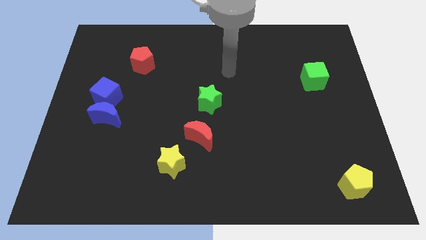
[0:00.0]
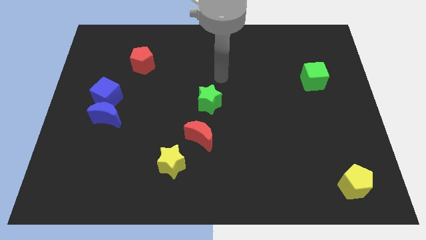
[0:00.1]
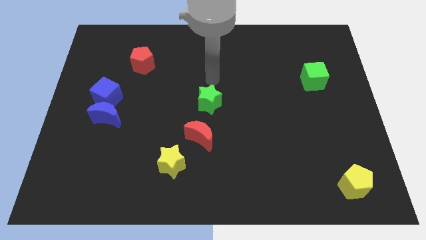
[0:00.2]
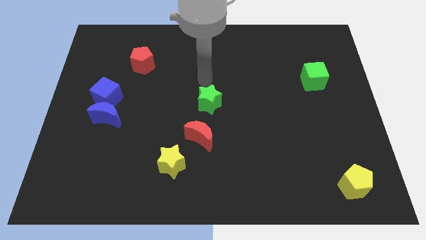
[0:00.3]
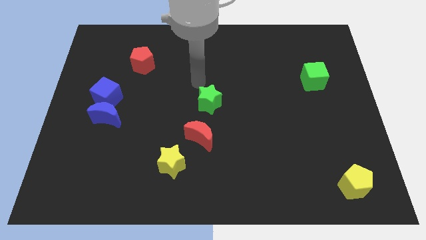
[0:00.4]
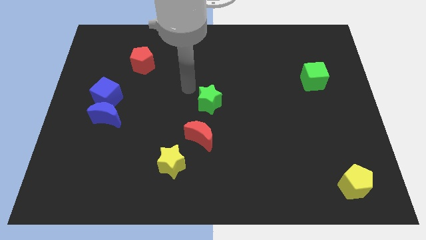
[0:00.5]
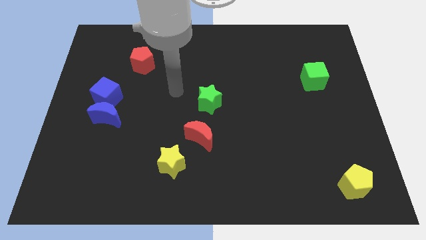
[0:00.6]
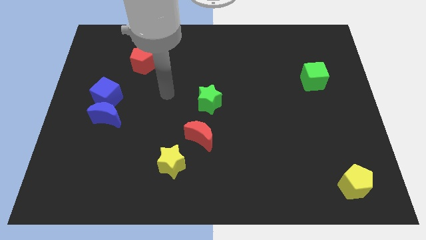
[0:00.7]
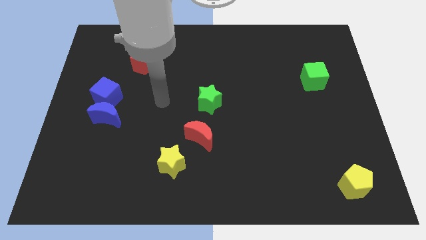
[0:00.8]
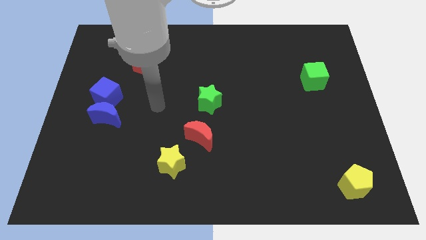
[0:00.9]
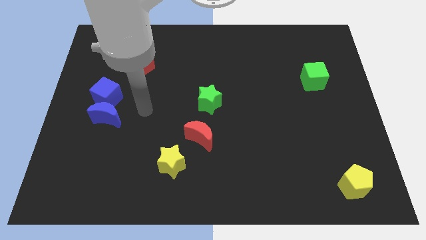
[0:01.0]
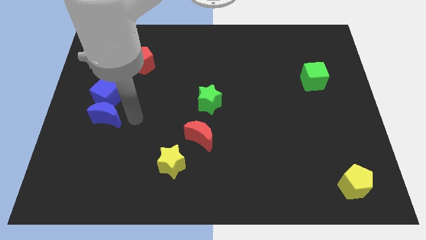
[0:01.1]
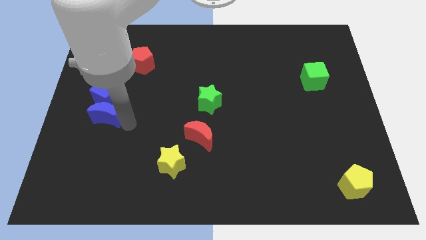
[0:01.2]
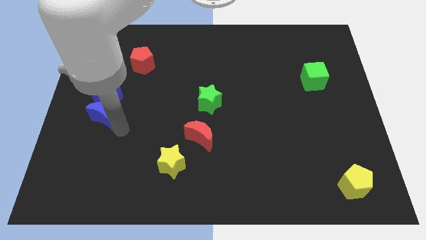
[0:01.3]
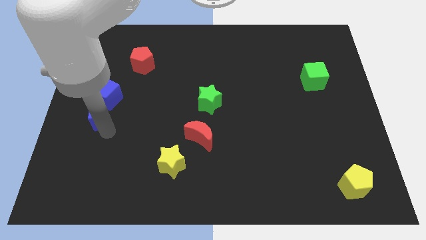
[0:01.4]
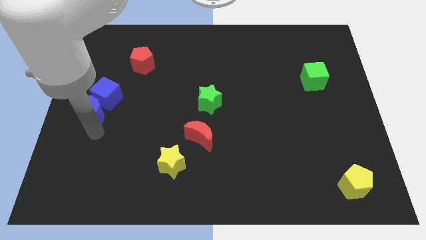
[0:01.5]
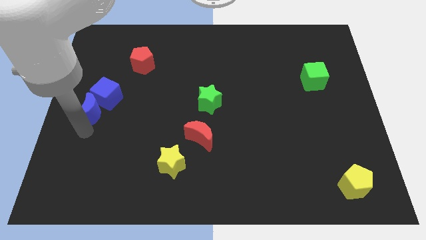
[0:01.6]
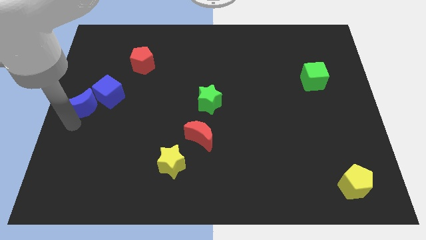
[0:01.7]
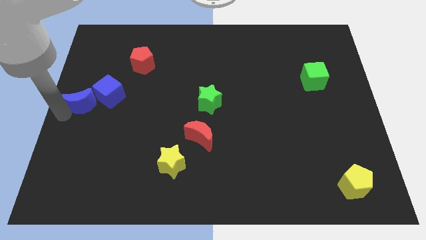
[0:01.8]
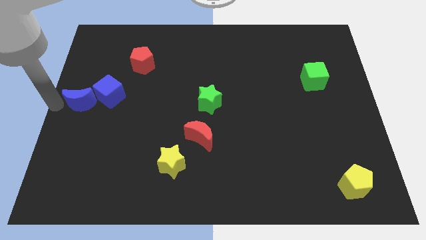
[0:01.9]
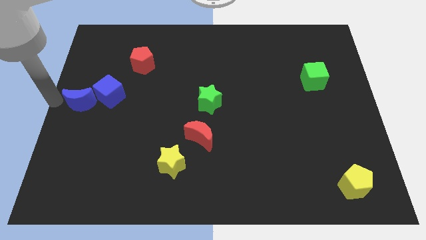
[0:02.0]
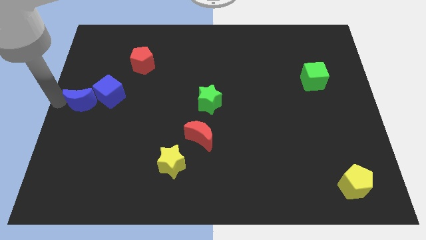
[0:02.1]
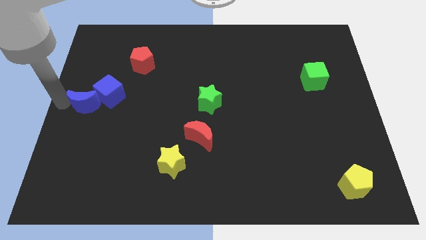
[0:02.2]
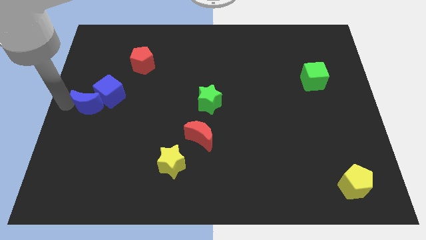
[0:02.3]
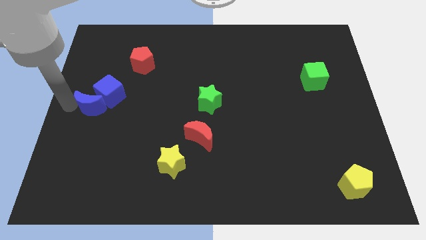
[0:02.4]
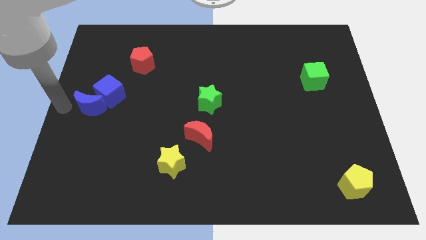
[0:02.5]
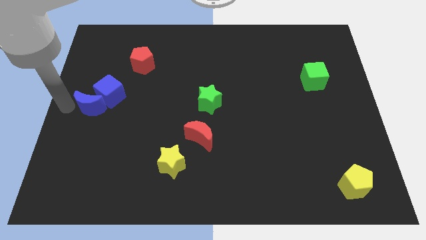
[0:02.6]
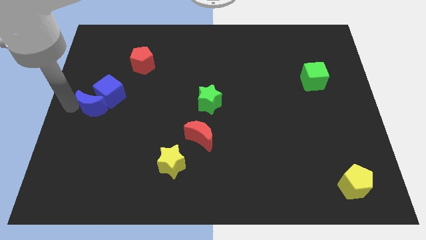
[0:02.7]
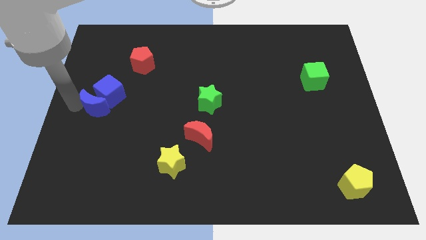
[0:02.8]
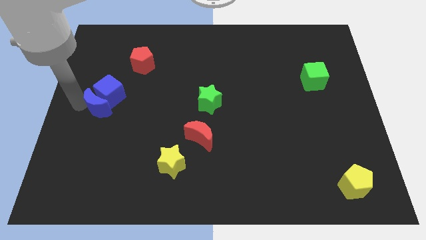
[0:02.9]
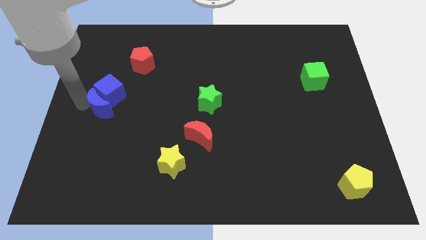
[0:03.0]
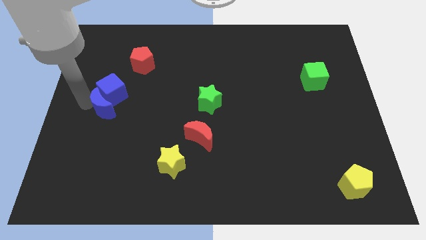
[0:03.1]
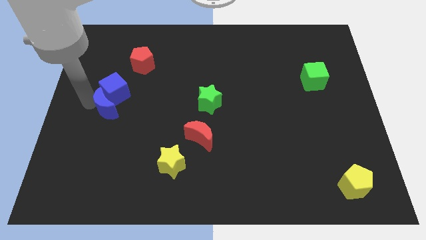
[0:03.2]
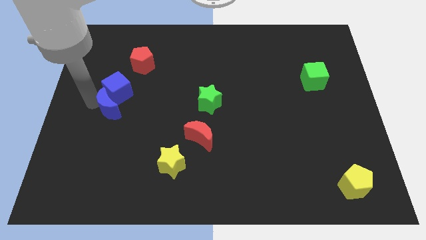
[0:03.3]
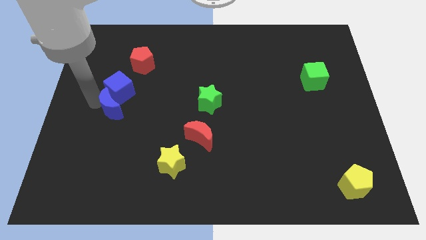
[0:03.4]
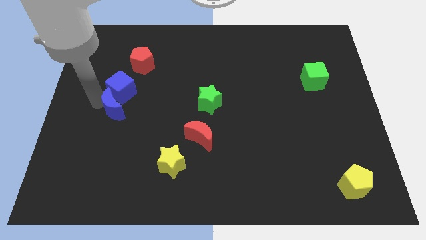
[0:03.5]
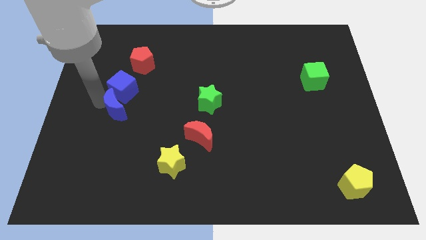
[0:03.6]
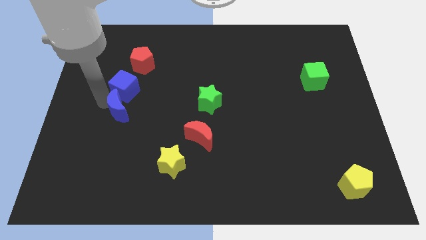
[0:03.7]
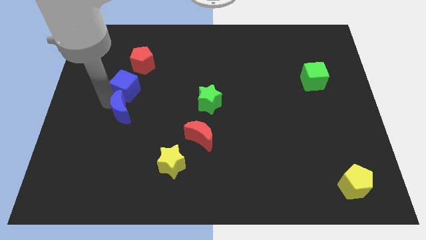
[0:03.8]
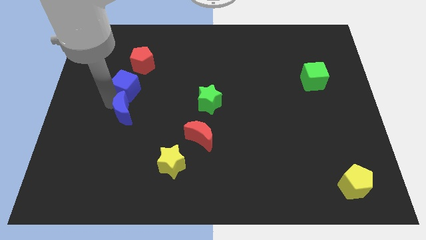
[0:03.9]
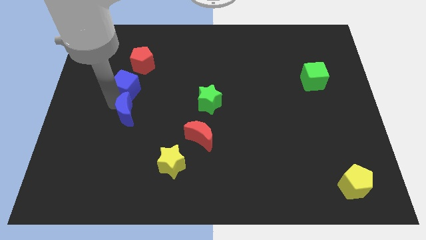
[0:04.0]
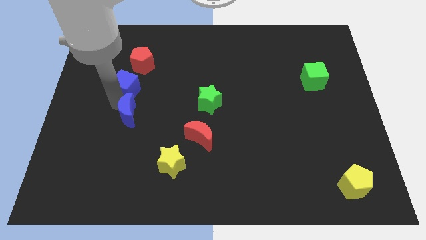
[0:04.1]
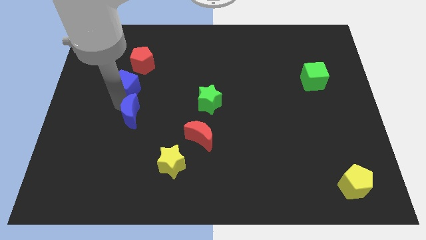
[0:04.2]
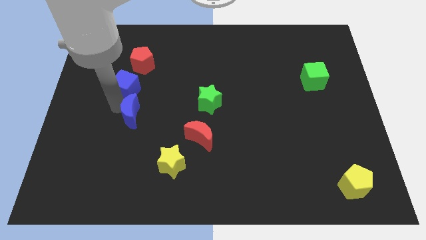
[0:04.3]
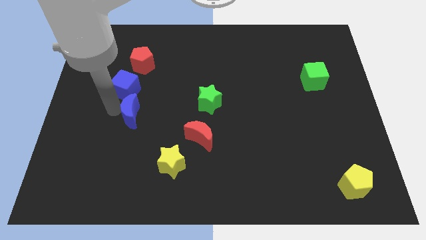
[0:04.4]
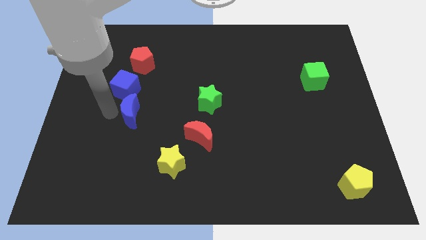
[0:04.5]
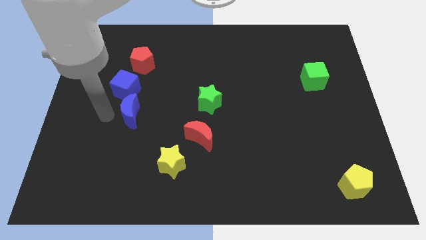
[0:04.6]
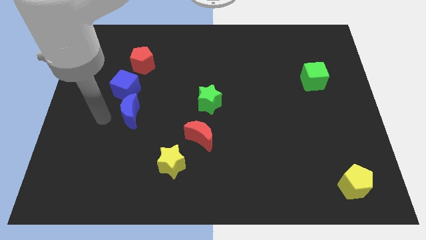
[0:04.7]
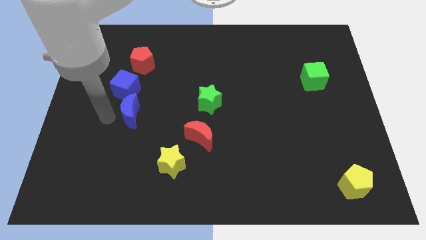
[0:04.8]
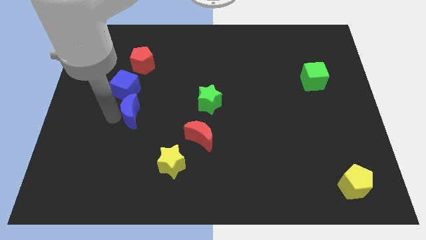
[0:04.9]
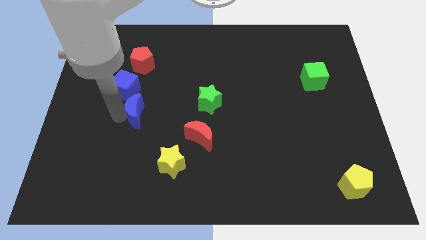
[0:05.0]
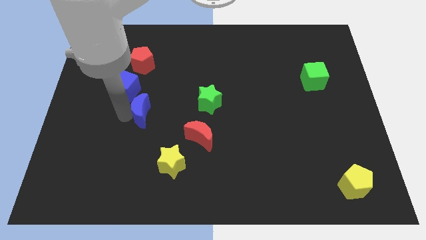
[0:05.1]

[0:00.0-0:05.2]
push the blue moon slightly to the right

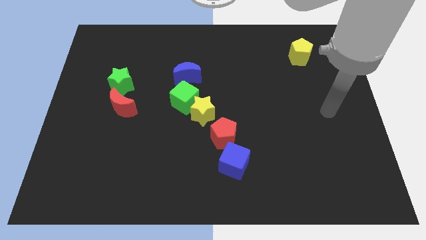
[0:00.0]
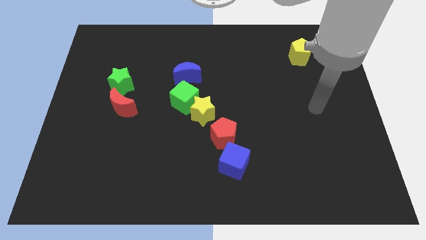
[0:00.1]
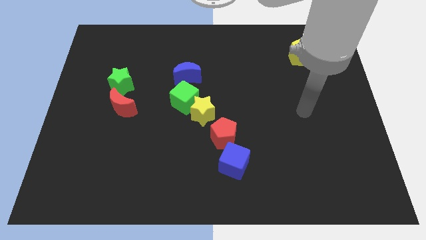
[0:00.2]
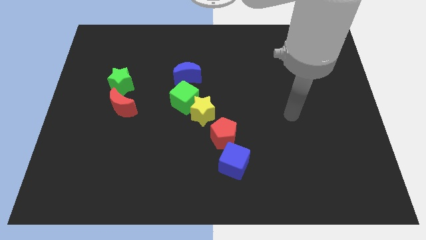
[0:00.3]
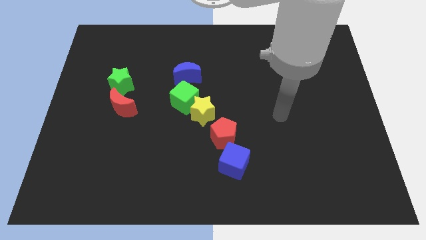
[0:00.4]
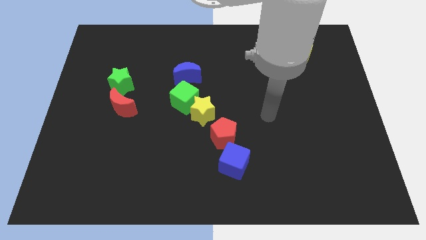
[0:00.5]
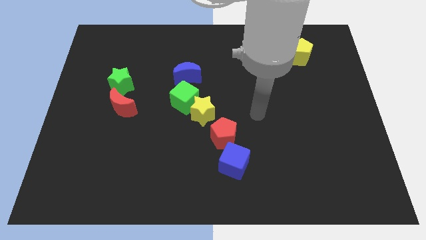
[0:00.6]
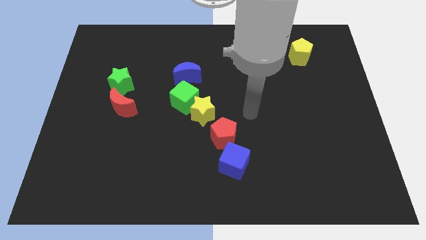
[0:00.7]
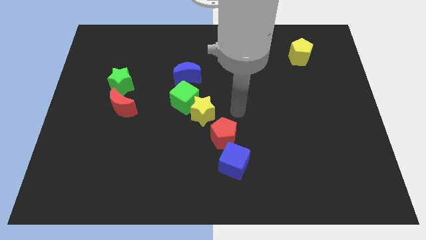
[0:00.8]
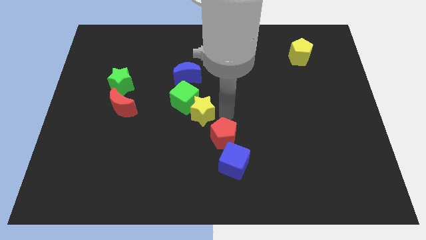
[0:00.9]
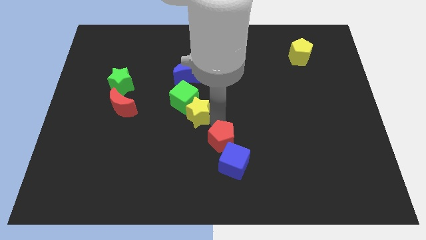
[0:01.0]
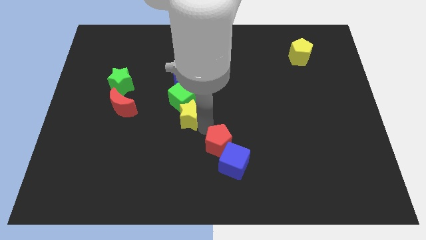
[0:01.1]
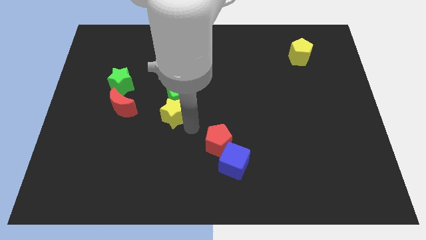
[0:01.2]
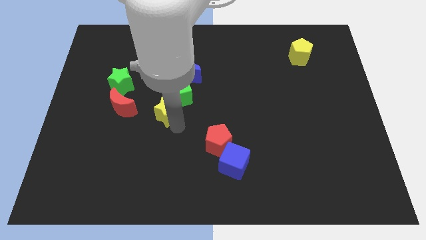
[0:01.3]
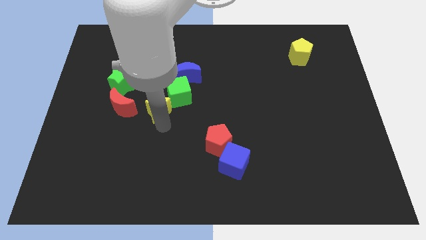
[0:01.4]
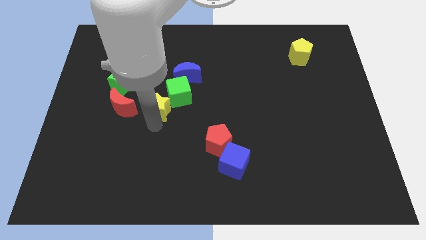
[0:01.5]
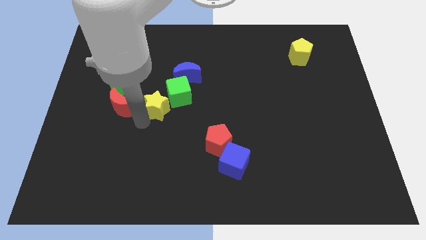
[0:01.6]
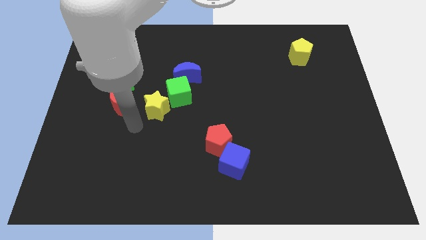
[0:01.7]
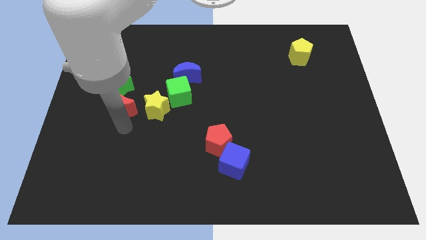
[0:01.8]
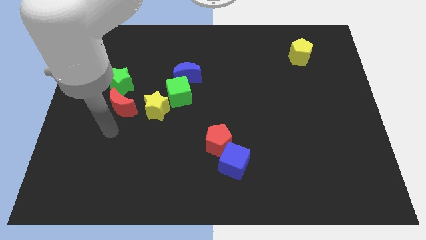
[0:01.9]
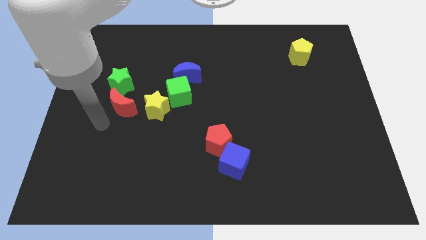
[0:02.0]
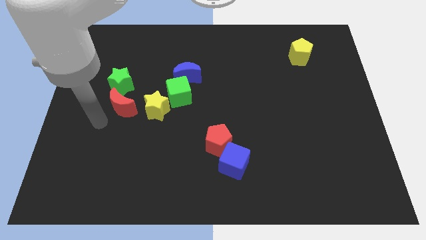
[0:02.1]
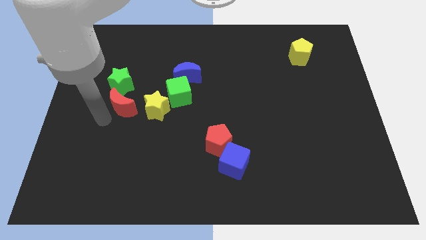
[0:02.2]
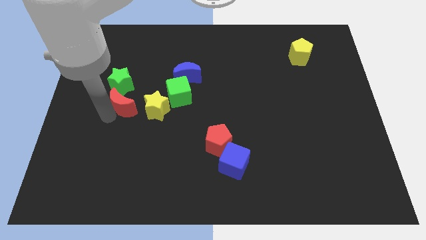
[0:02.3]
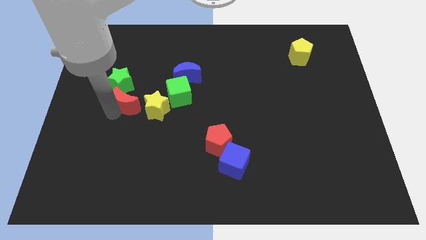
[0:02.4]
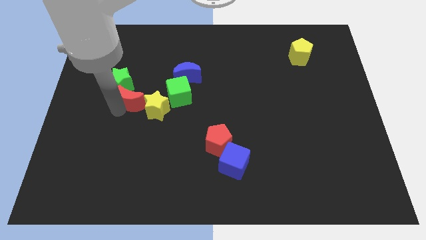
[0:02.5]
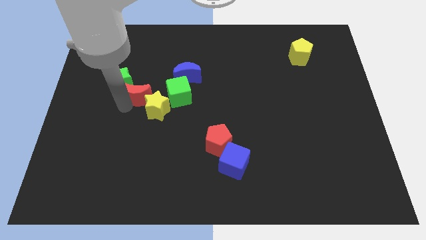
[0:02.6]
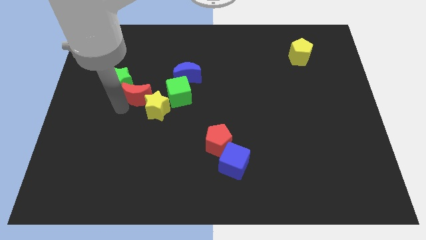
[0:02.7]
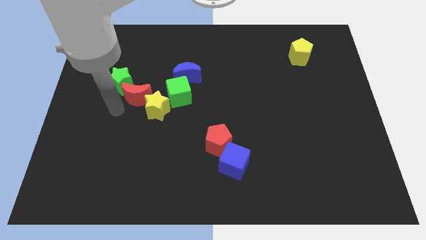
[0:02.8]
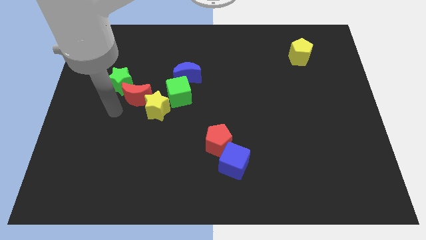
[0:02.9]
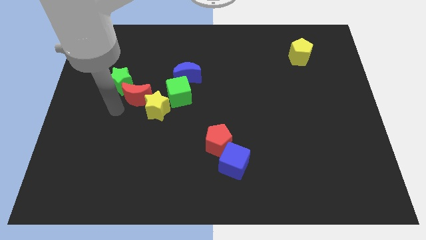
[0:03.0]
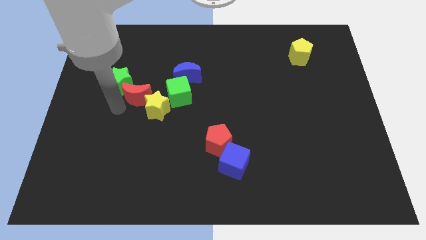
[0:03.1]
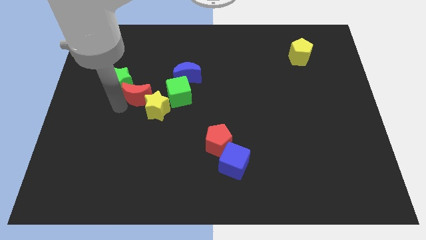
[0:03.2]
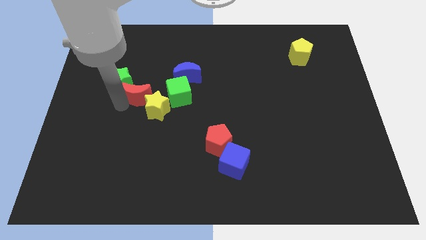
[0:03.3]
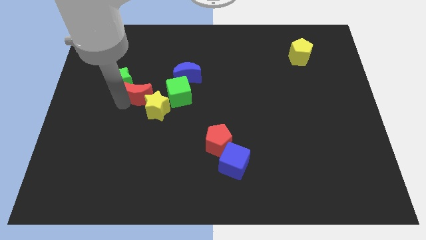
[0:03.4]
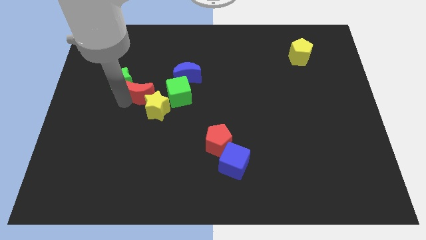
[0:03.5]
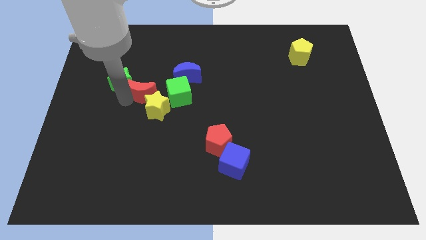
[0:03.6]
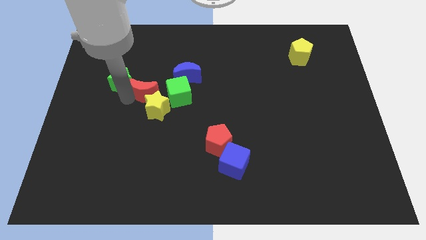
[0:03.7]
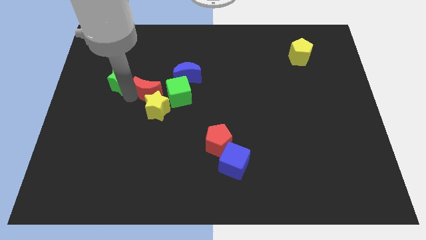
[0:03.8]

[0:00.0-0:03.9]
push the red moon diagonally up and right slightly
